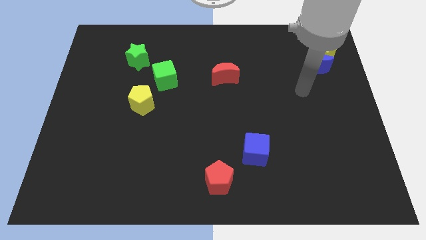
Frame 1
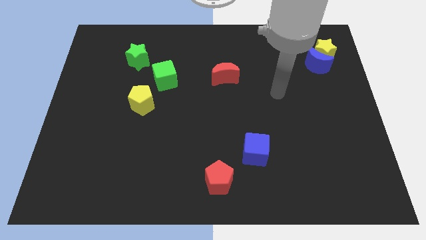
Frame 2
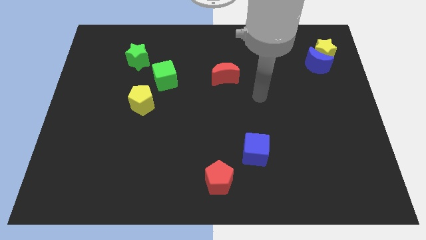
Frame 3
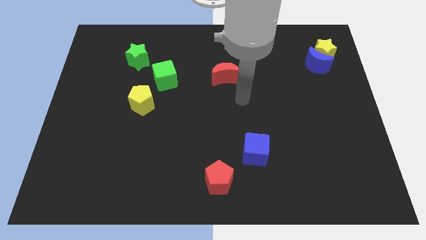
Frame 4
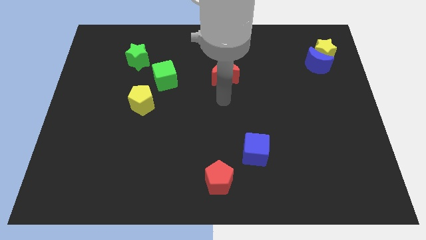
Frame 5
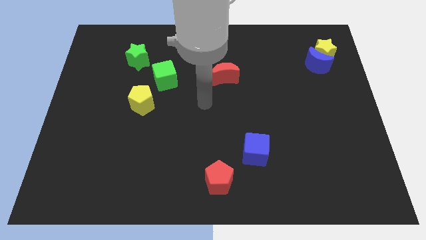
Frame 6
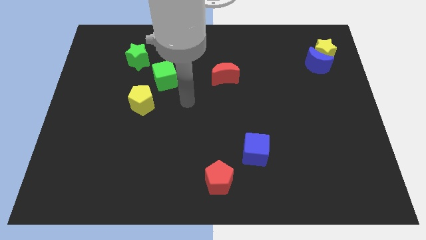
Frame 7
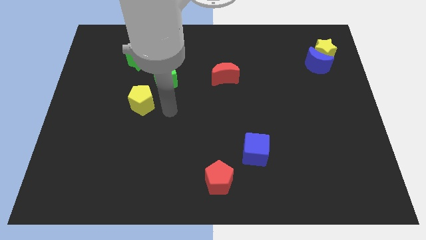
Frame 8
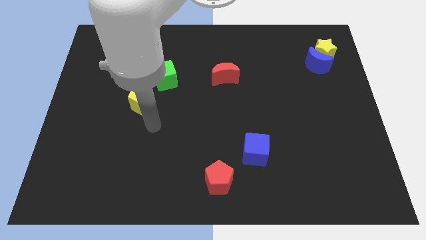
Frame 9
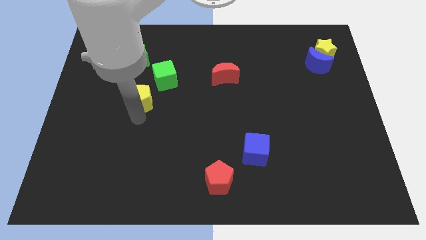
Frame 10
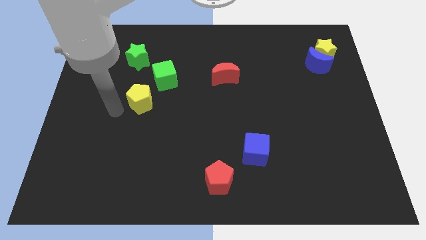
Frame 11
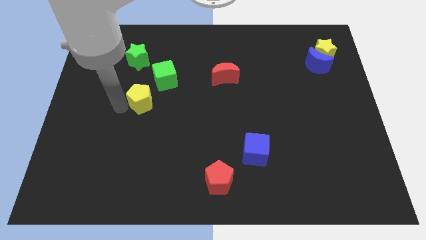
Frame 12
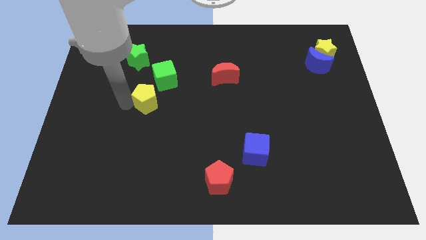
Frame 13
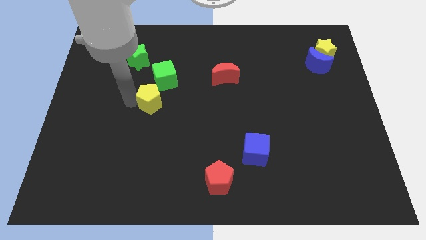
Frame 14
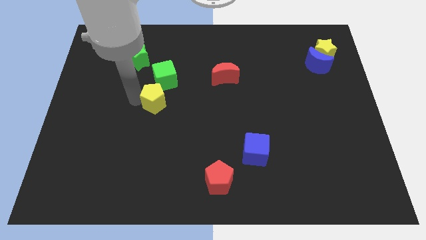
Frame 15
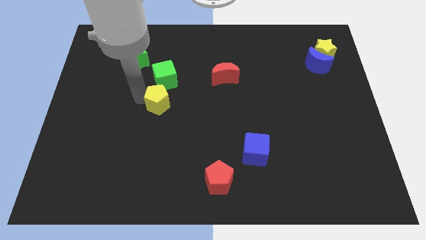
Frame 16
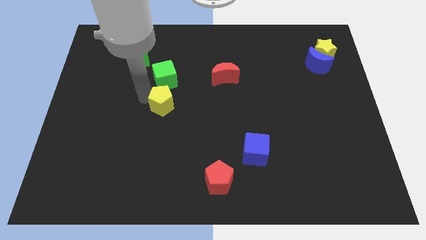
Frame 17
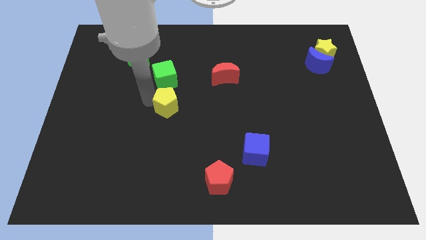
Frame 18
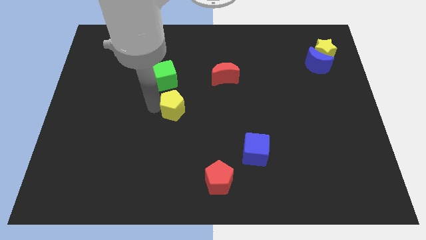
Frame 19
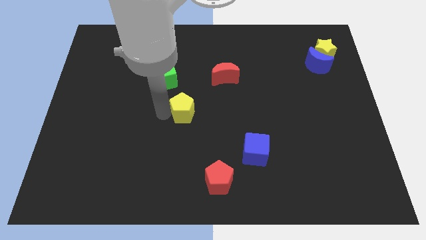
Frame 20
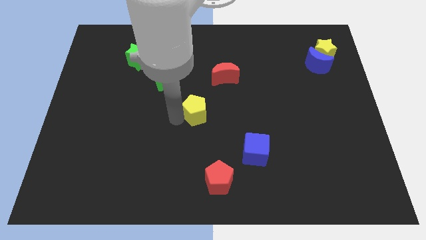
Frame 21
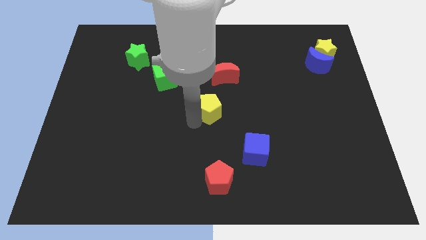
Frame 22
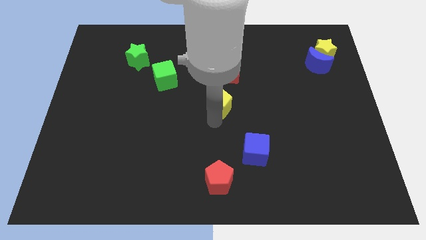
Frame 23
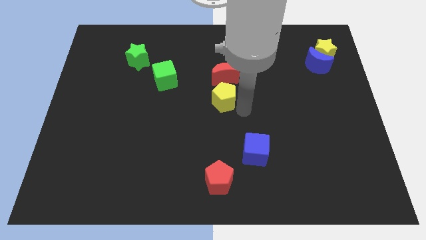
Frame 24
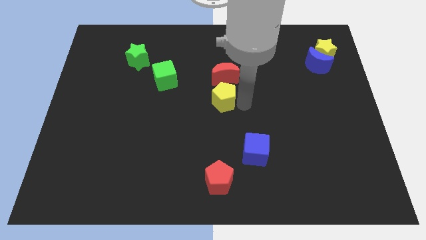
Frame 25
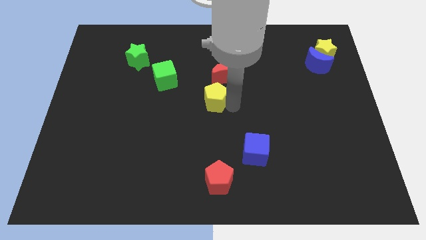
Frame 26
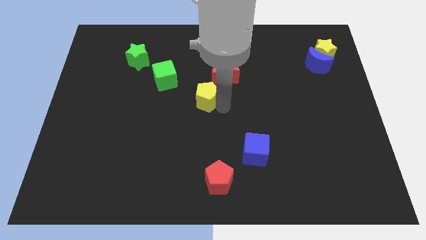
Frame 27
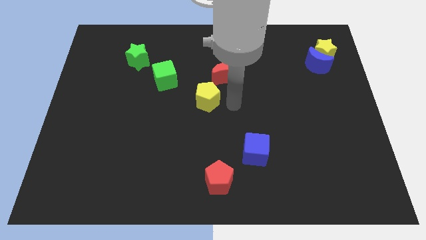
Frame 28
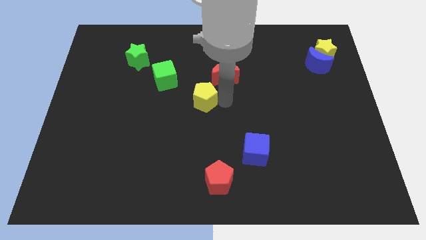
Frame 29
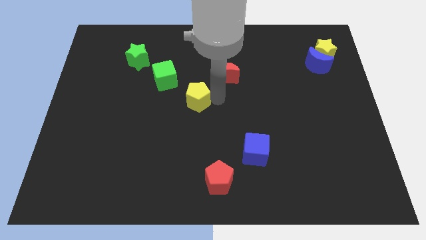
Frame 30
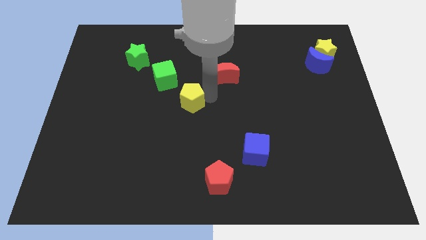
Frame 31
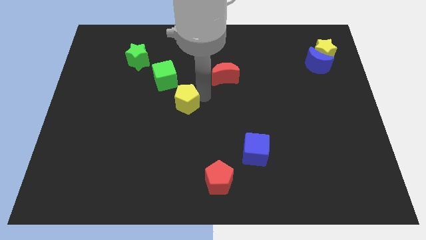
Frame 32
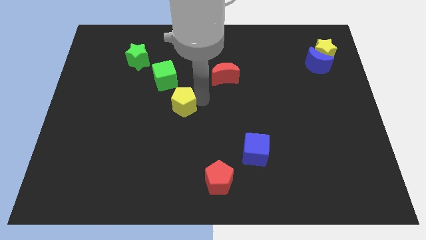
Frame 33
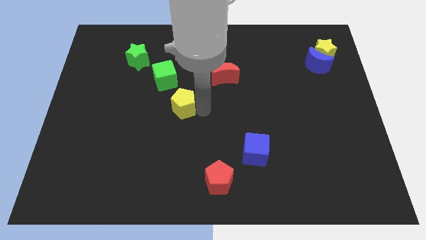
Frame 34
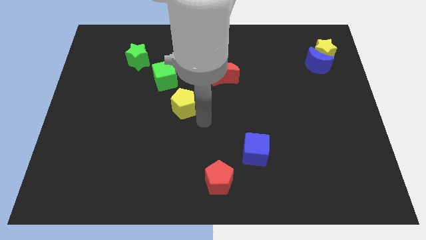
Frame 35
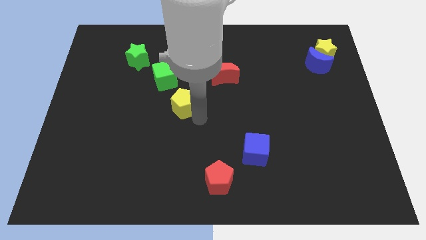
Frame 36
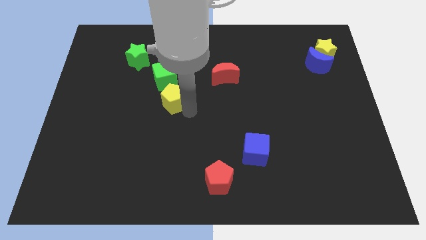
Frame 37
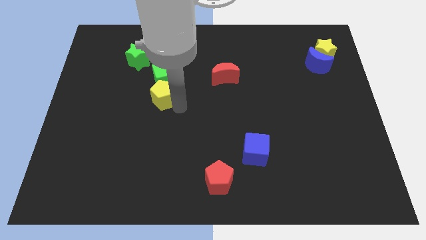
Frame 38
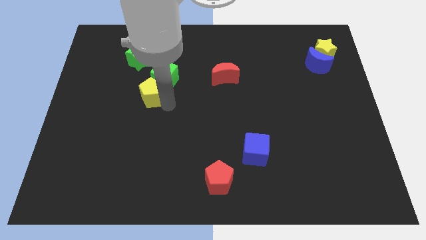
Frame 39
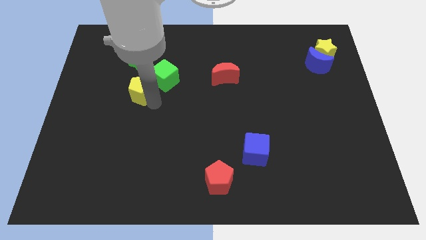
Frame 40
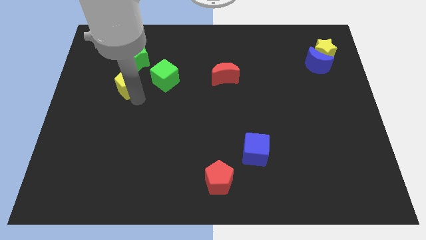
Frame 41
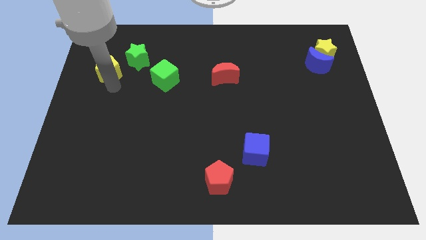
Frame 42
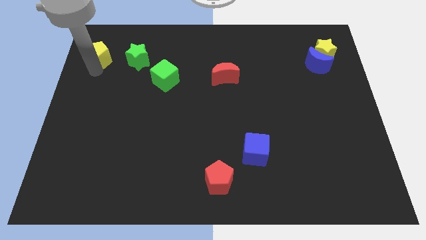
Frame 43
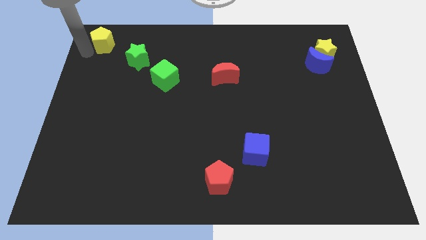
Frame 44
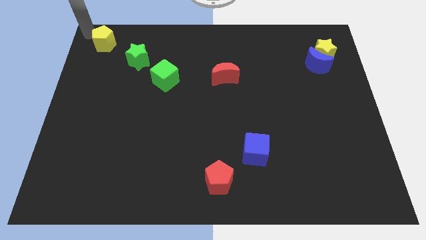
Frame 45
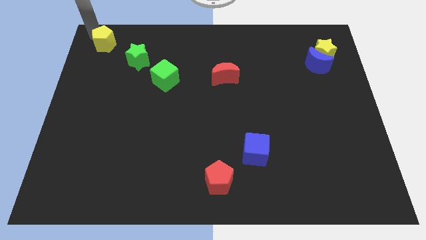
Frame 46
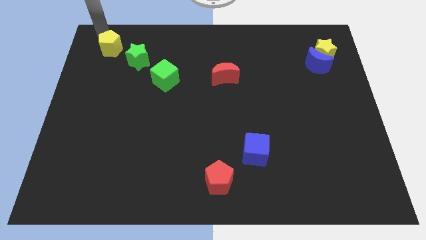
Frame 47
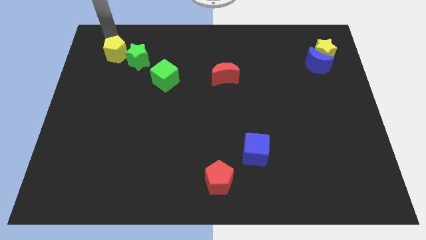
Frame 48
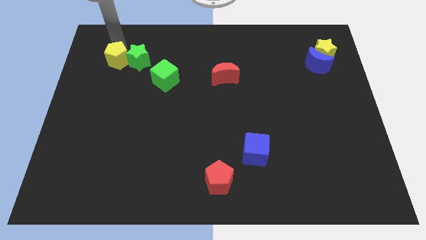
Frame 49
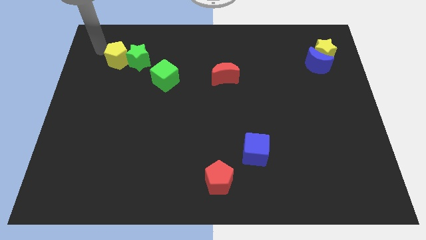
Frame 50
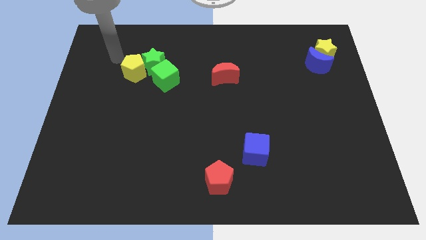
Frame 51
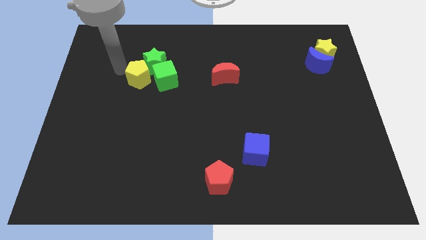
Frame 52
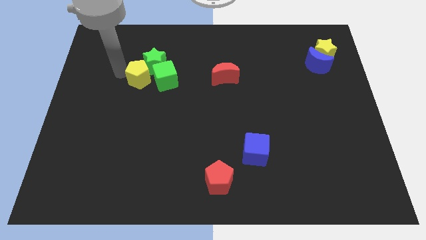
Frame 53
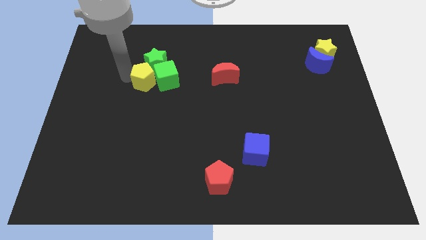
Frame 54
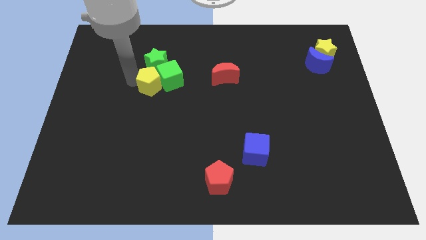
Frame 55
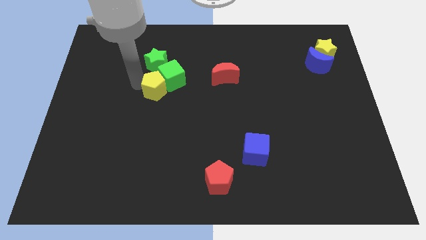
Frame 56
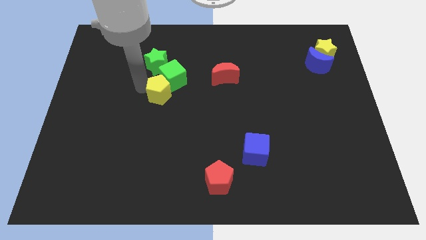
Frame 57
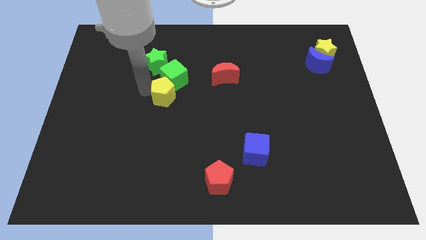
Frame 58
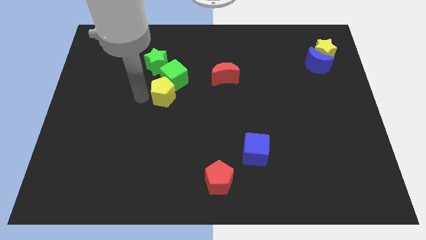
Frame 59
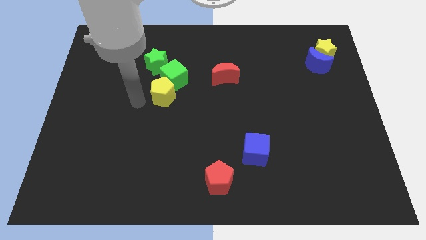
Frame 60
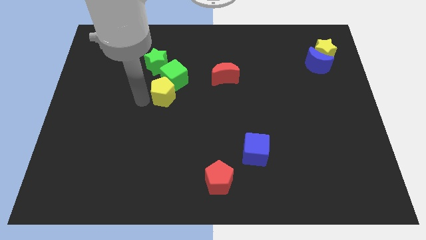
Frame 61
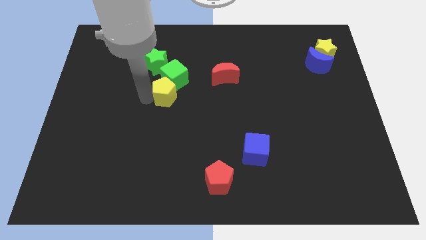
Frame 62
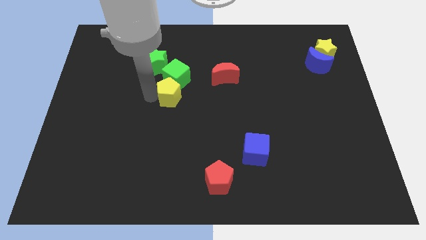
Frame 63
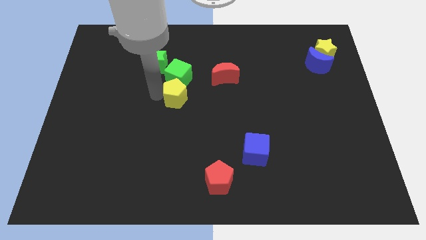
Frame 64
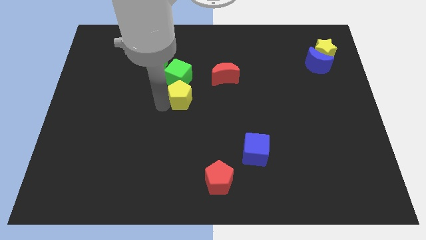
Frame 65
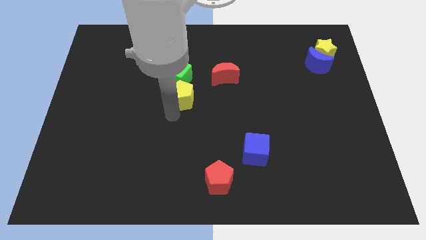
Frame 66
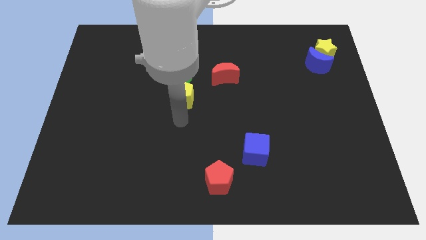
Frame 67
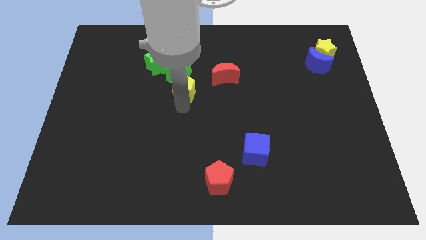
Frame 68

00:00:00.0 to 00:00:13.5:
slightly move the yellow pentagon up and to the right diagonally

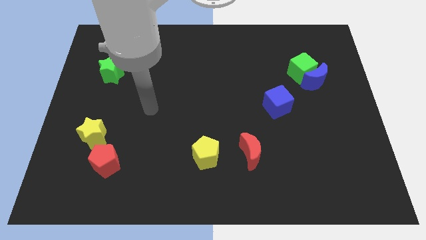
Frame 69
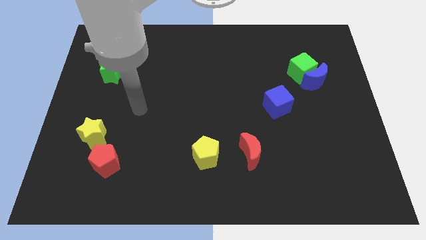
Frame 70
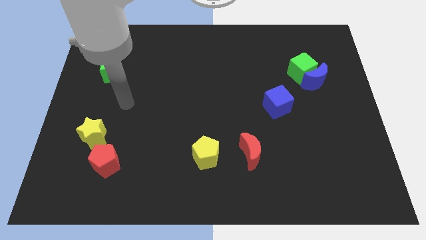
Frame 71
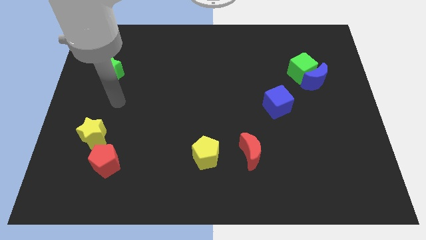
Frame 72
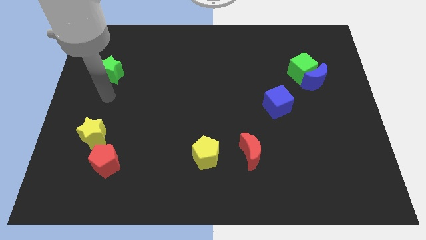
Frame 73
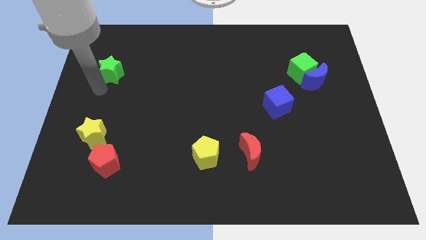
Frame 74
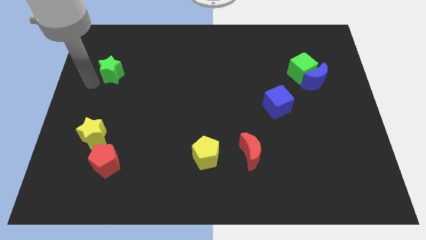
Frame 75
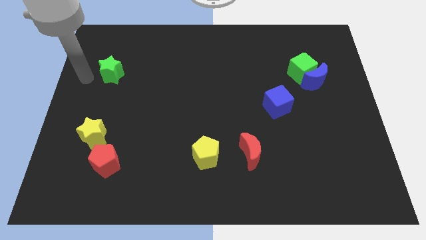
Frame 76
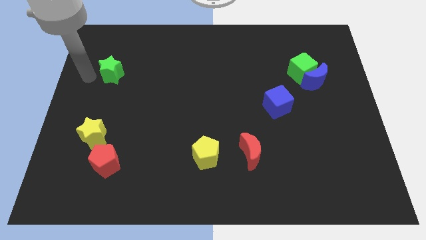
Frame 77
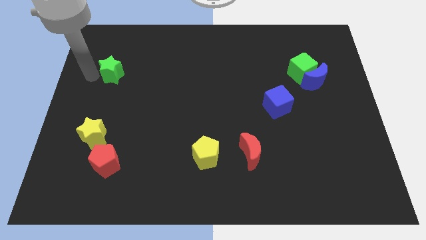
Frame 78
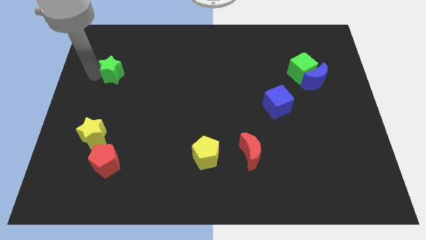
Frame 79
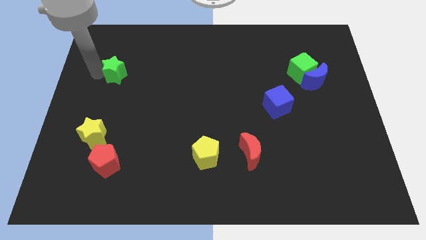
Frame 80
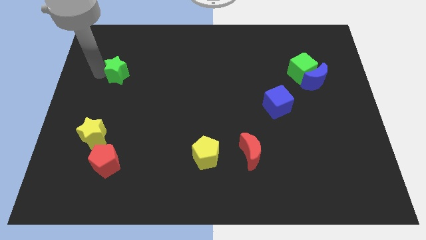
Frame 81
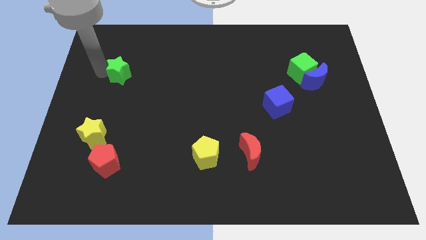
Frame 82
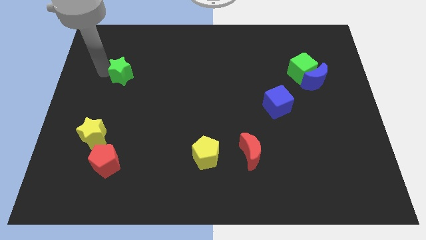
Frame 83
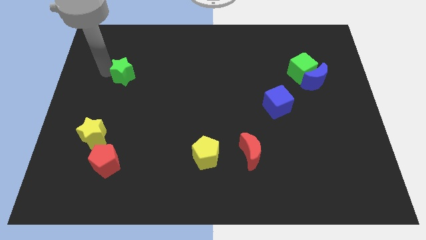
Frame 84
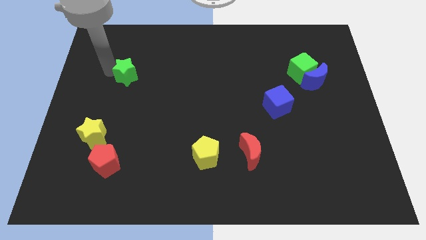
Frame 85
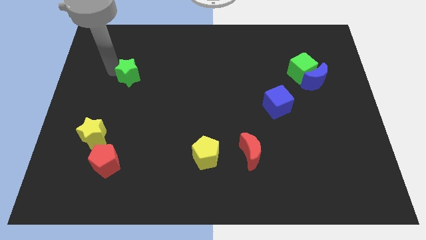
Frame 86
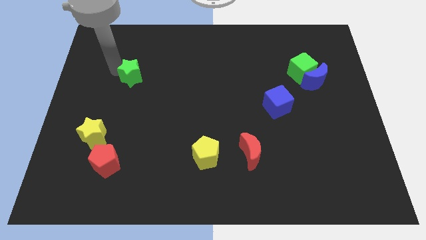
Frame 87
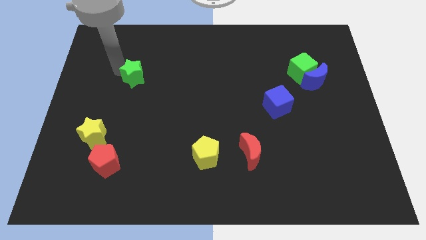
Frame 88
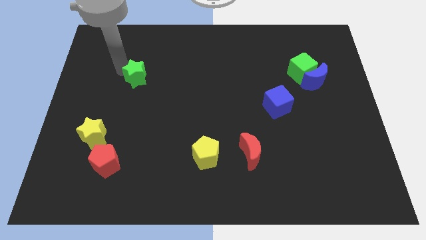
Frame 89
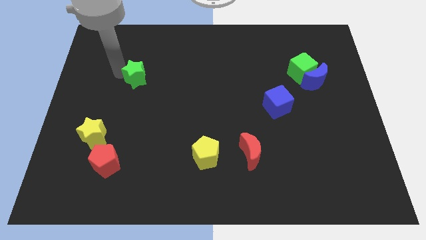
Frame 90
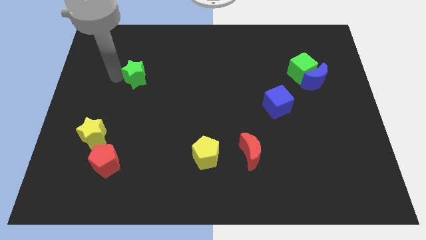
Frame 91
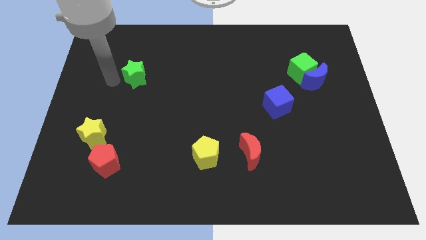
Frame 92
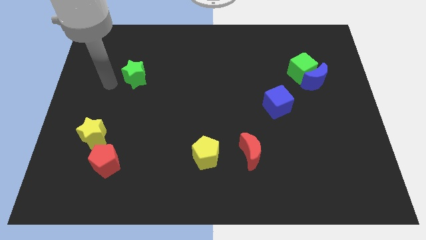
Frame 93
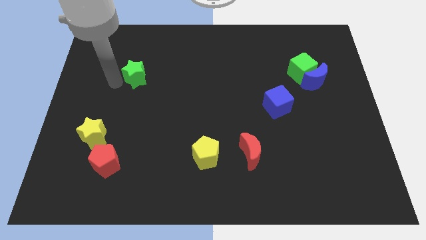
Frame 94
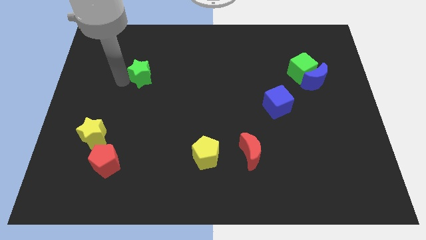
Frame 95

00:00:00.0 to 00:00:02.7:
move the green star somewhat to the right
